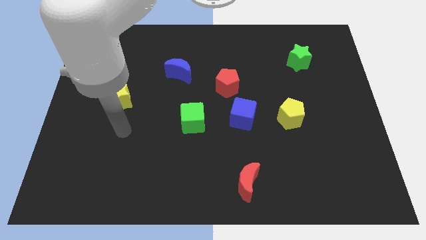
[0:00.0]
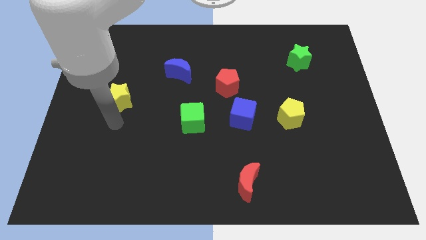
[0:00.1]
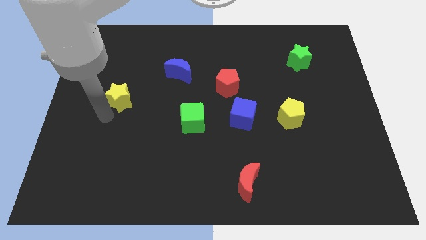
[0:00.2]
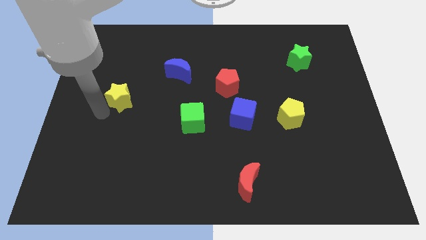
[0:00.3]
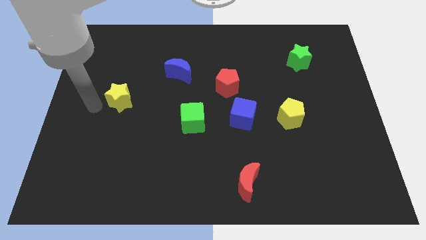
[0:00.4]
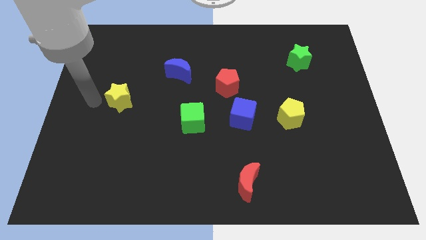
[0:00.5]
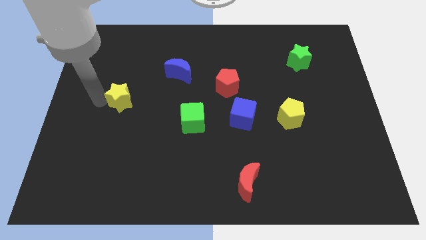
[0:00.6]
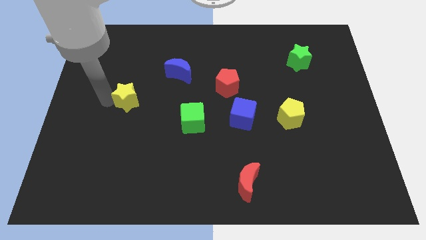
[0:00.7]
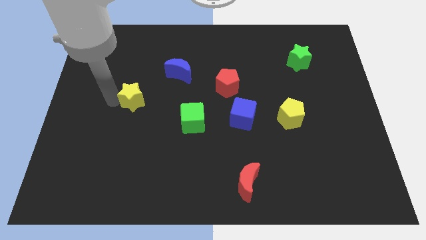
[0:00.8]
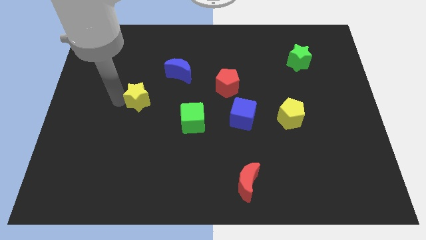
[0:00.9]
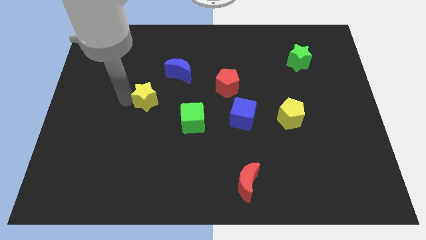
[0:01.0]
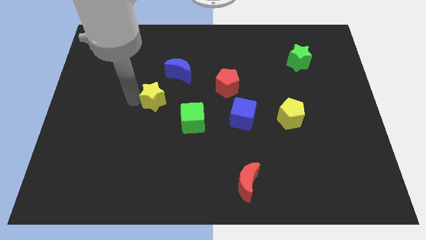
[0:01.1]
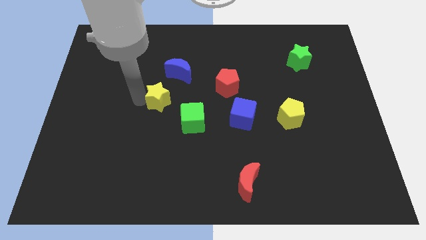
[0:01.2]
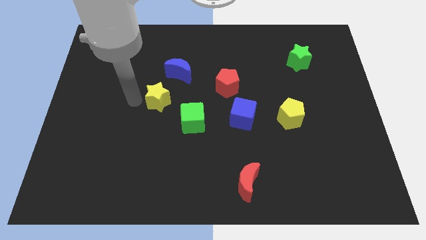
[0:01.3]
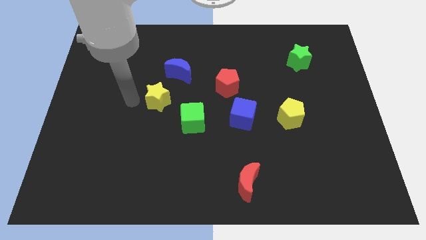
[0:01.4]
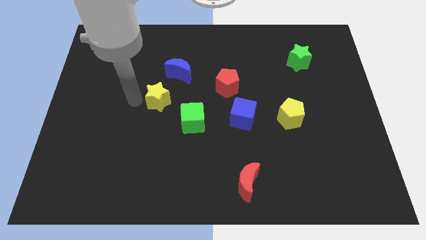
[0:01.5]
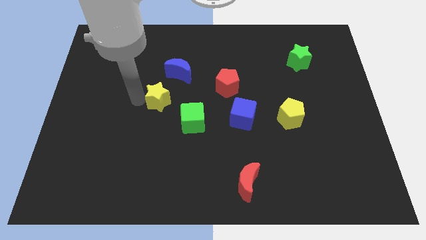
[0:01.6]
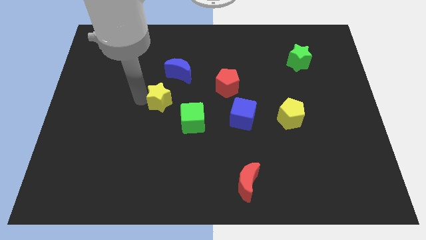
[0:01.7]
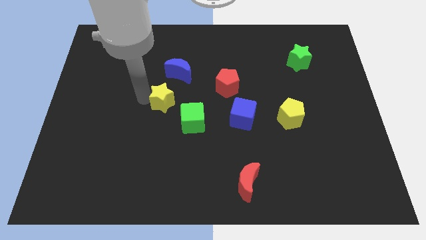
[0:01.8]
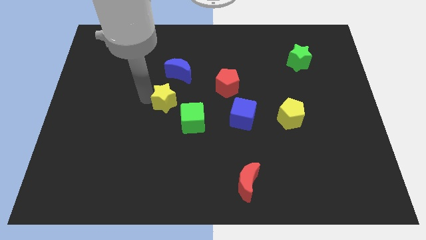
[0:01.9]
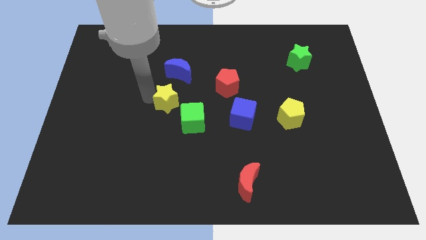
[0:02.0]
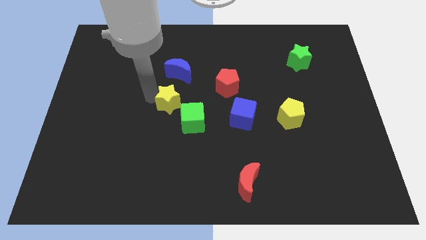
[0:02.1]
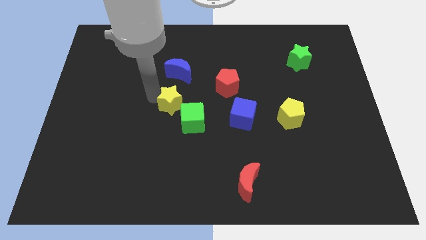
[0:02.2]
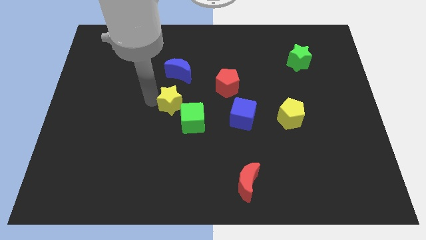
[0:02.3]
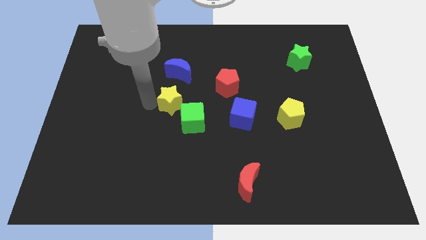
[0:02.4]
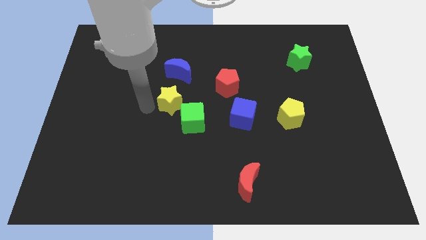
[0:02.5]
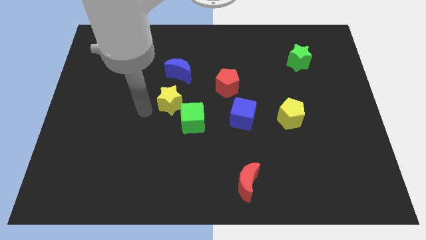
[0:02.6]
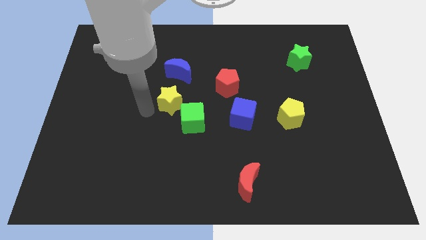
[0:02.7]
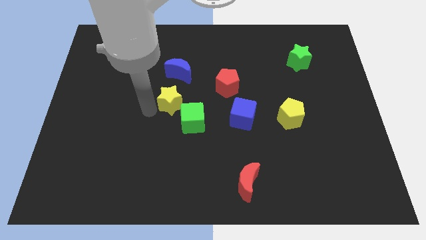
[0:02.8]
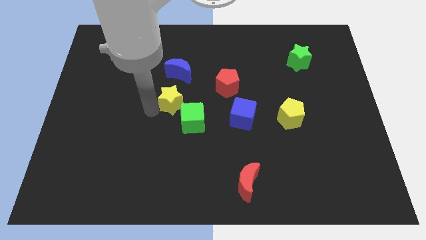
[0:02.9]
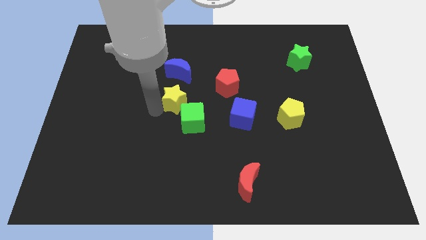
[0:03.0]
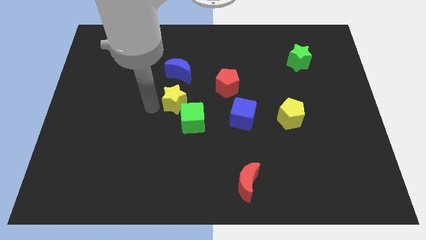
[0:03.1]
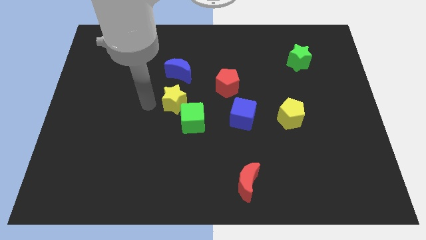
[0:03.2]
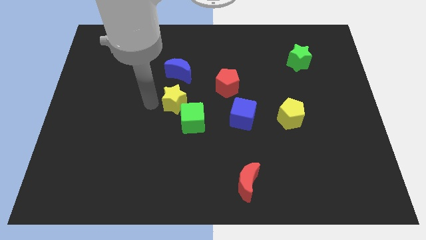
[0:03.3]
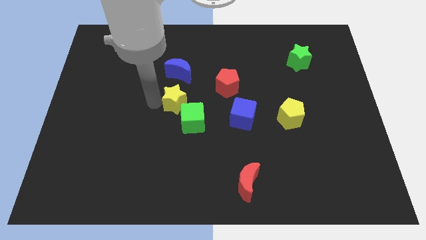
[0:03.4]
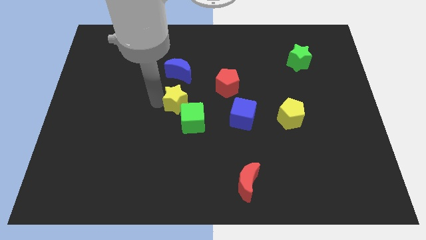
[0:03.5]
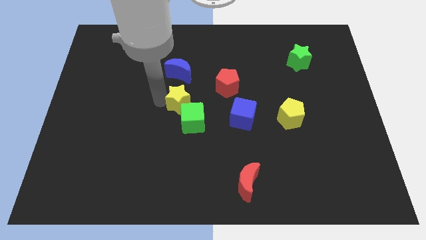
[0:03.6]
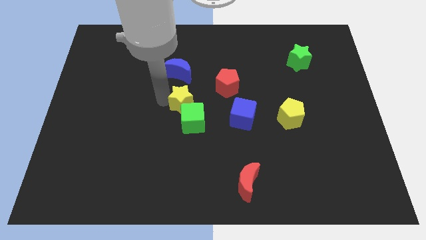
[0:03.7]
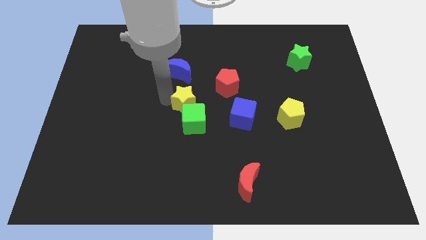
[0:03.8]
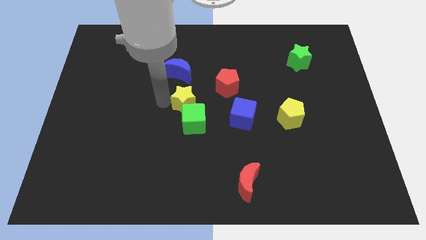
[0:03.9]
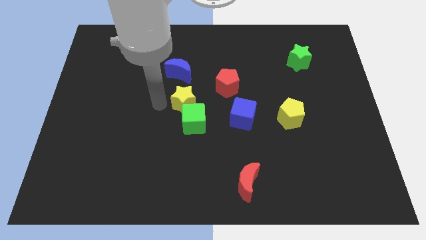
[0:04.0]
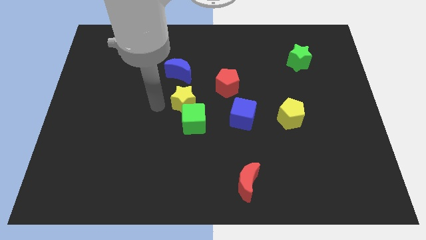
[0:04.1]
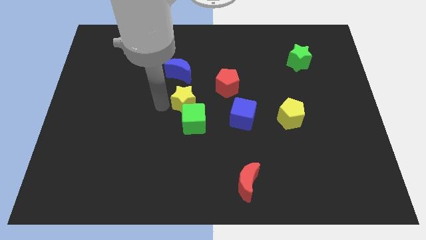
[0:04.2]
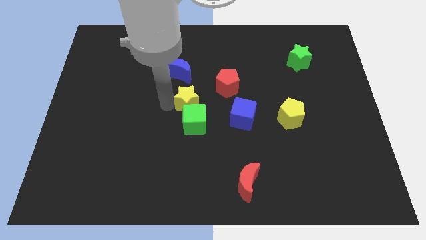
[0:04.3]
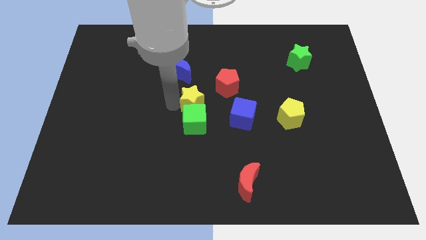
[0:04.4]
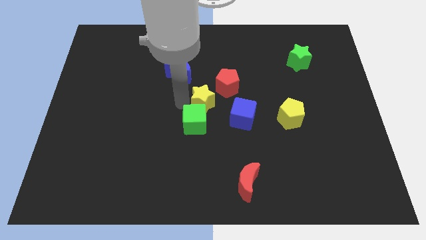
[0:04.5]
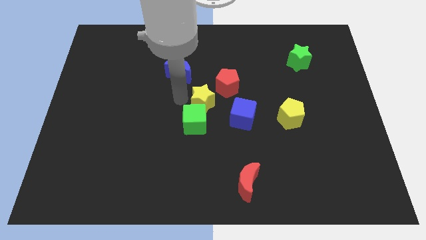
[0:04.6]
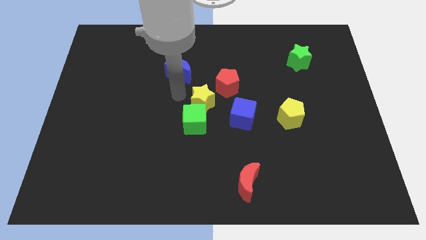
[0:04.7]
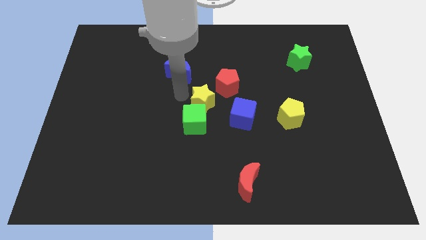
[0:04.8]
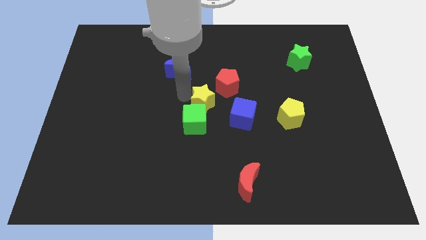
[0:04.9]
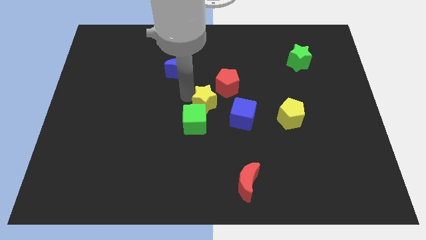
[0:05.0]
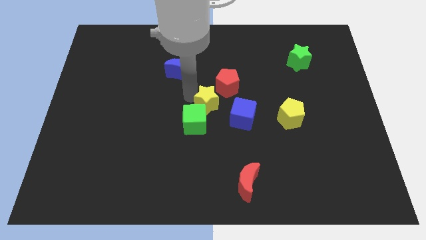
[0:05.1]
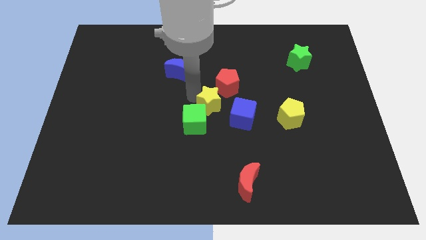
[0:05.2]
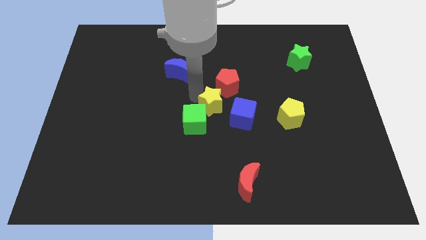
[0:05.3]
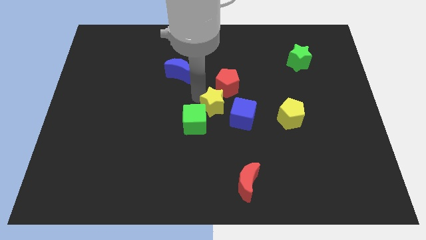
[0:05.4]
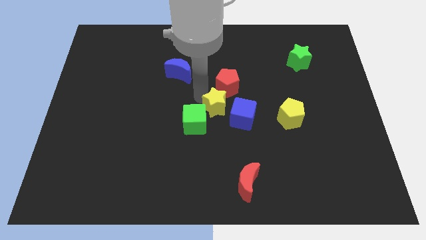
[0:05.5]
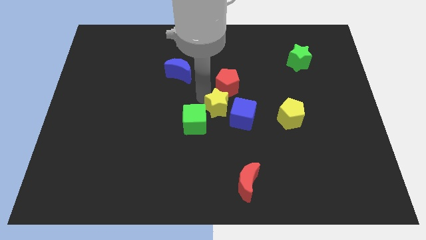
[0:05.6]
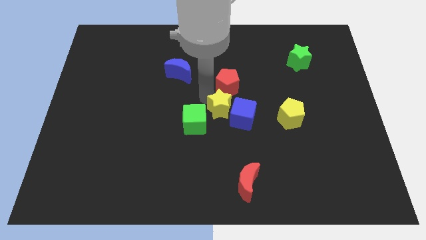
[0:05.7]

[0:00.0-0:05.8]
move the yellow star close to the blue cube
